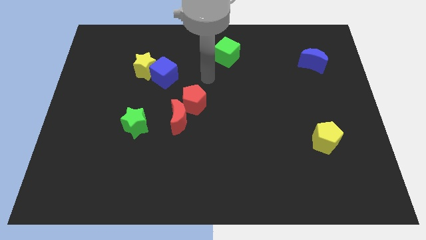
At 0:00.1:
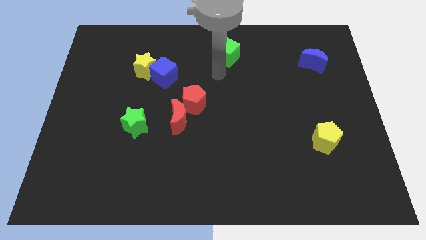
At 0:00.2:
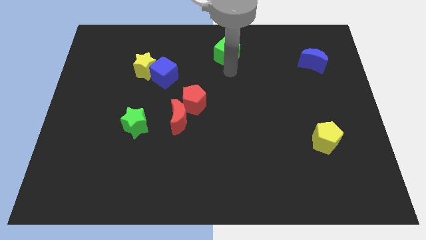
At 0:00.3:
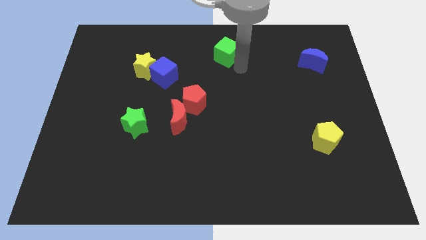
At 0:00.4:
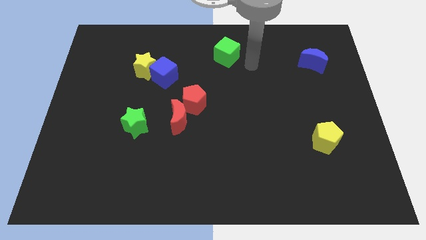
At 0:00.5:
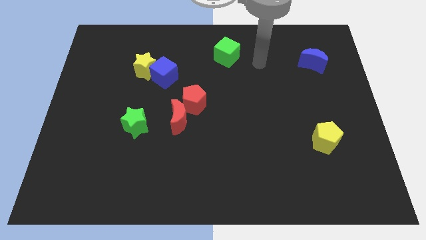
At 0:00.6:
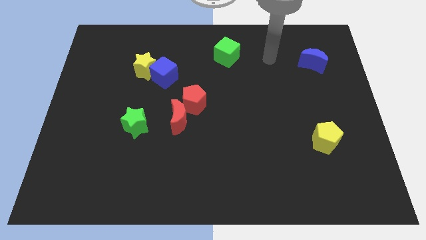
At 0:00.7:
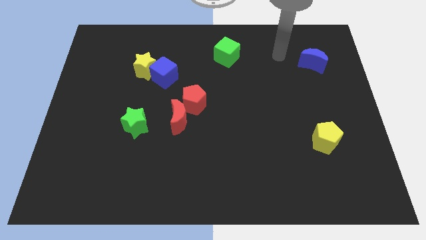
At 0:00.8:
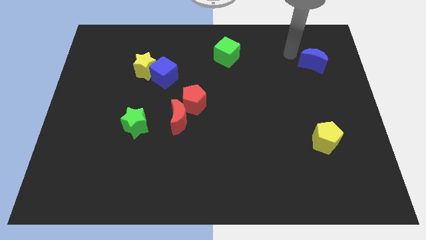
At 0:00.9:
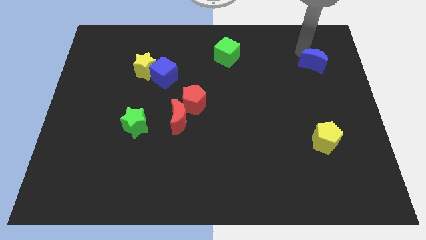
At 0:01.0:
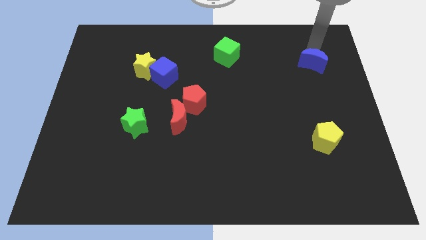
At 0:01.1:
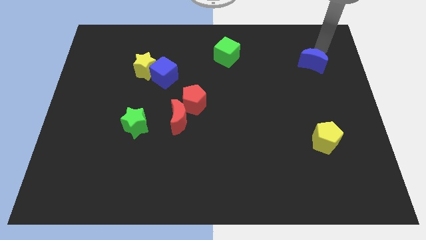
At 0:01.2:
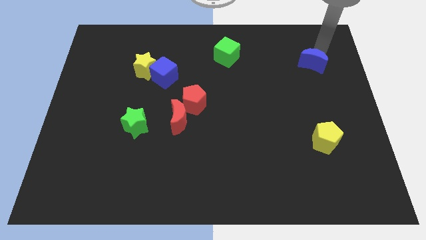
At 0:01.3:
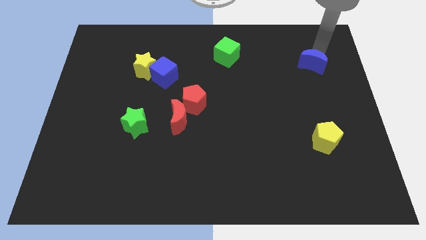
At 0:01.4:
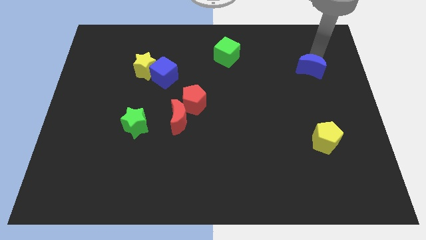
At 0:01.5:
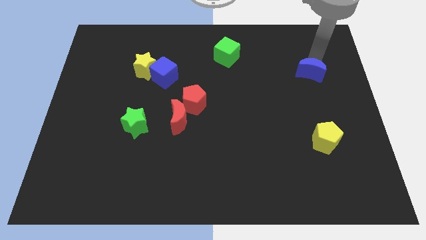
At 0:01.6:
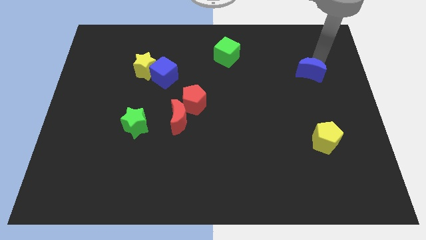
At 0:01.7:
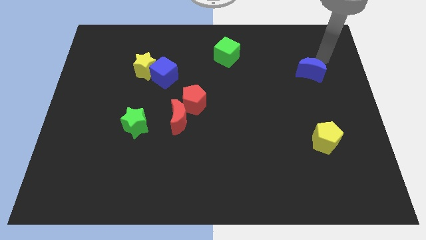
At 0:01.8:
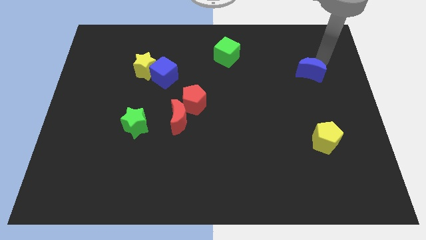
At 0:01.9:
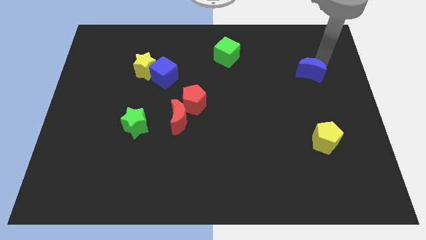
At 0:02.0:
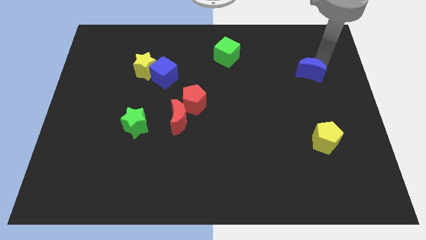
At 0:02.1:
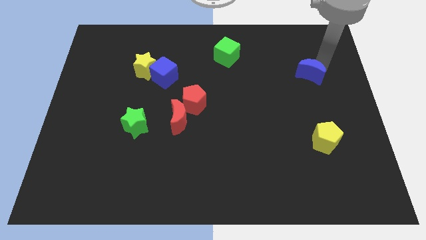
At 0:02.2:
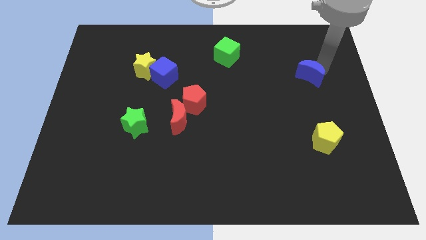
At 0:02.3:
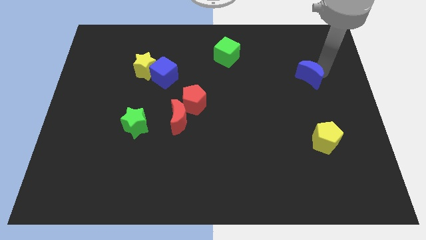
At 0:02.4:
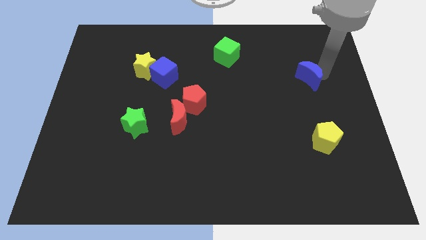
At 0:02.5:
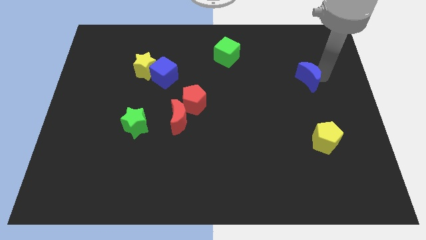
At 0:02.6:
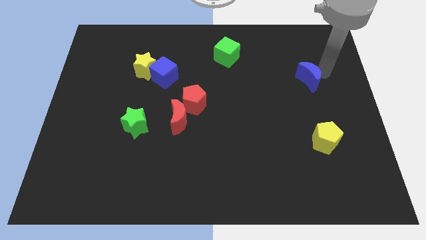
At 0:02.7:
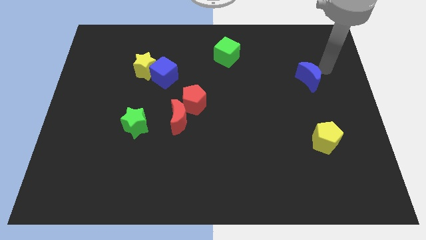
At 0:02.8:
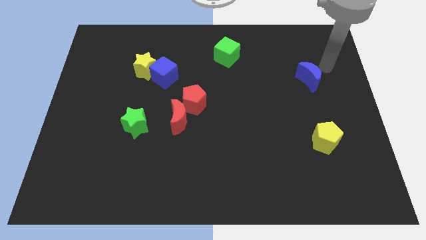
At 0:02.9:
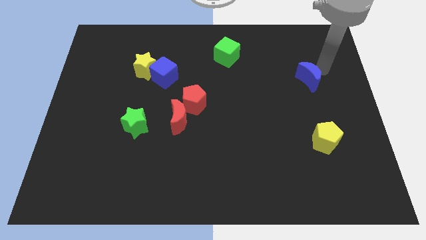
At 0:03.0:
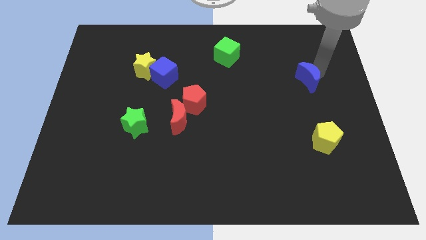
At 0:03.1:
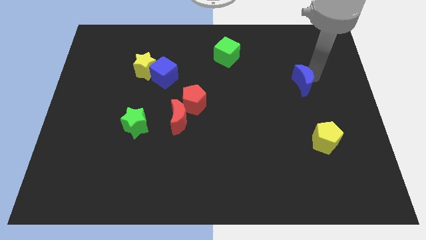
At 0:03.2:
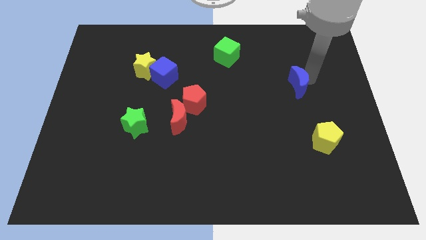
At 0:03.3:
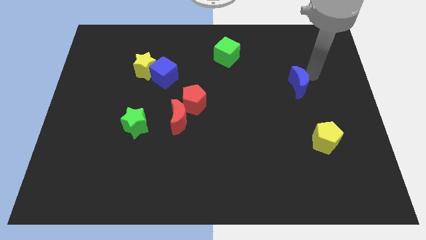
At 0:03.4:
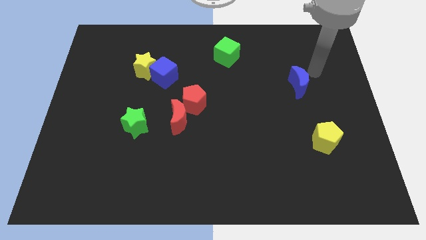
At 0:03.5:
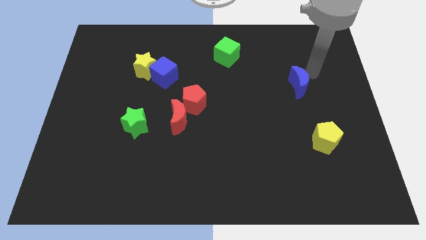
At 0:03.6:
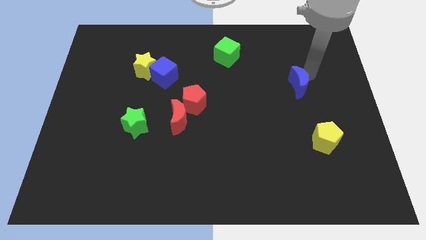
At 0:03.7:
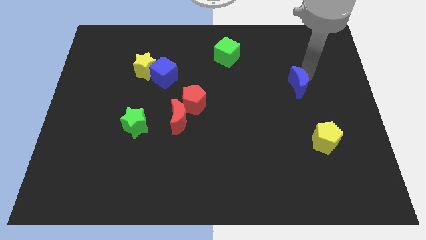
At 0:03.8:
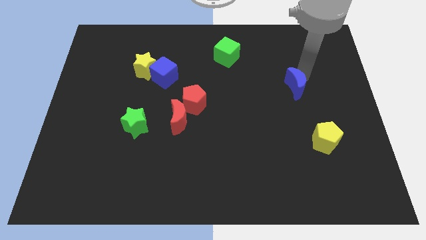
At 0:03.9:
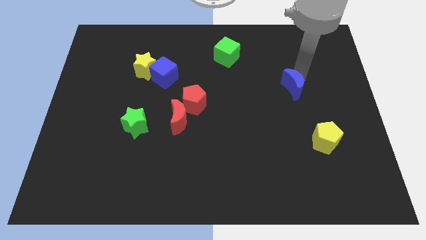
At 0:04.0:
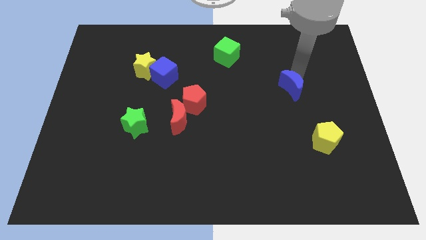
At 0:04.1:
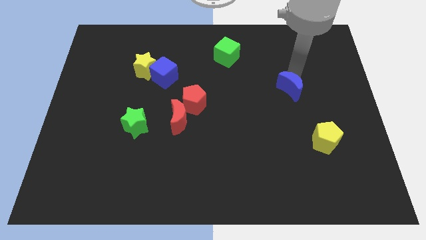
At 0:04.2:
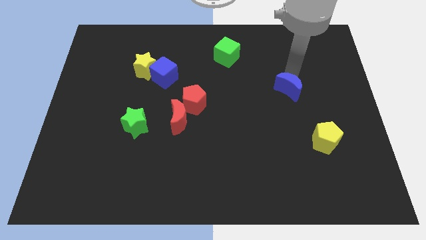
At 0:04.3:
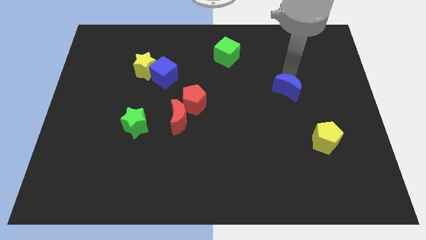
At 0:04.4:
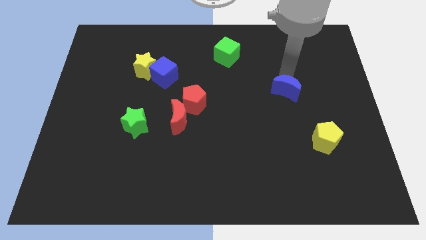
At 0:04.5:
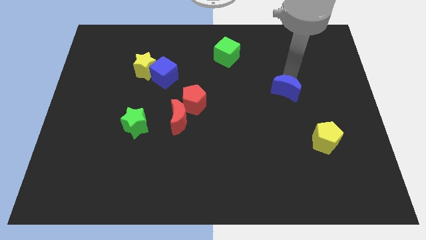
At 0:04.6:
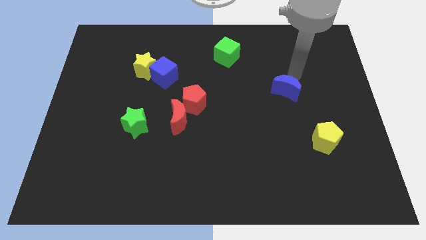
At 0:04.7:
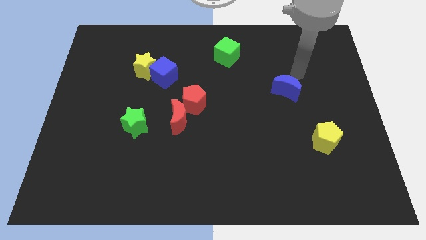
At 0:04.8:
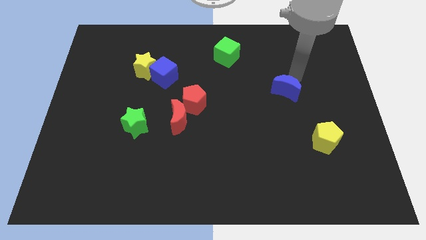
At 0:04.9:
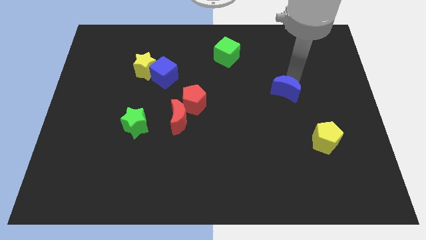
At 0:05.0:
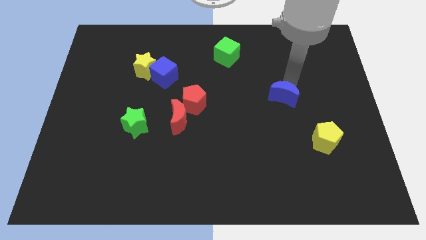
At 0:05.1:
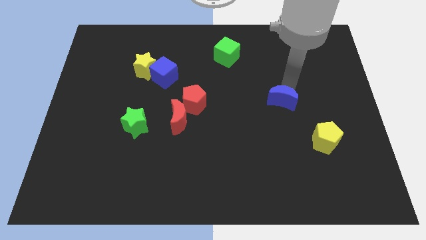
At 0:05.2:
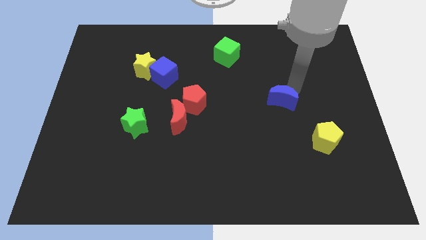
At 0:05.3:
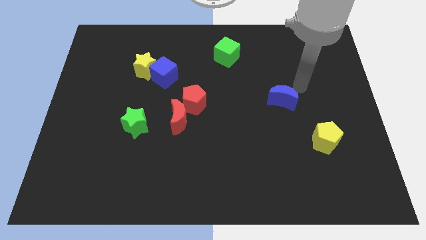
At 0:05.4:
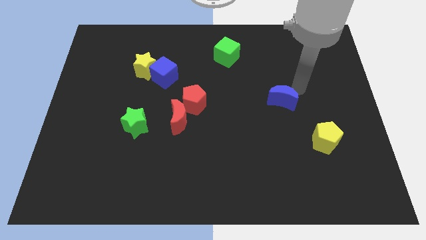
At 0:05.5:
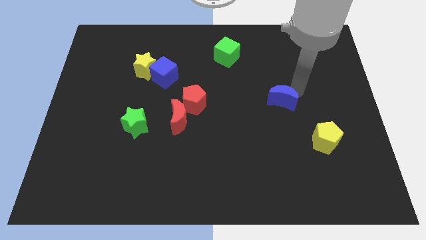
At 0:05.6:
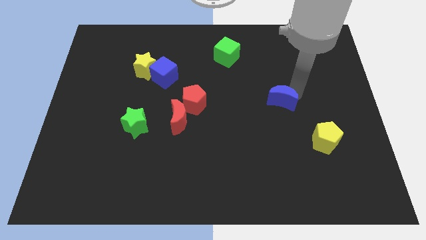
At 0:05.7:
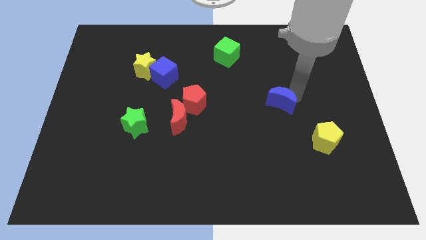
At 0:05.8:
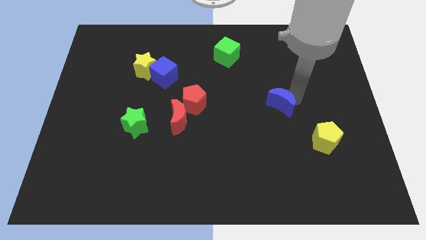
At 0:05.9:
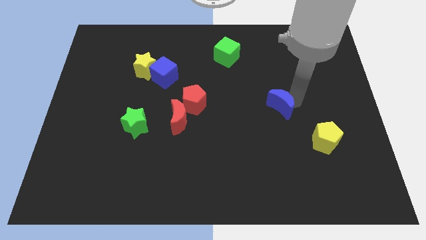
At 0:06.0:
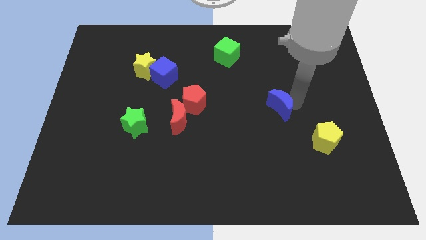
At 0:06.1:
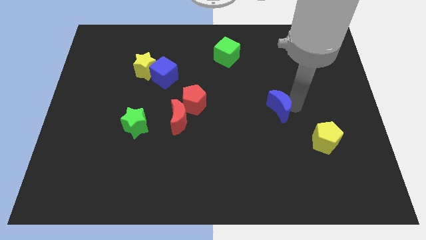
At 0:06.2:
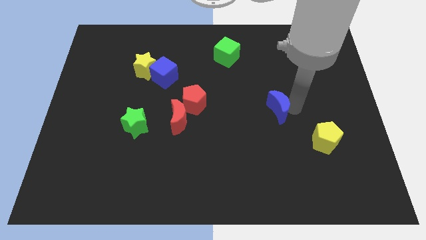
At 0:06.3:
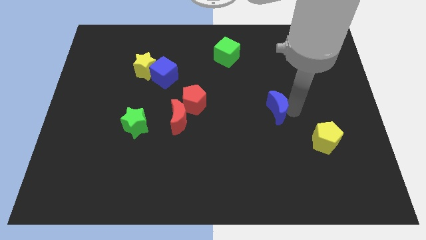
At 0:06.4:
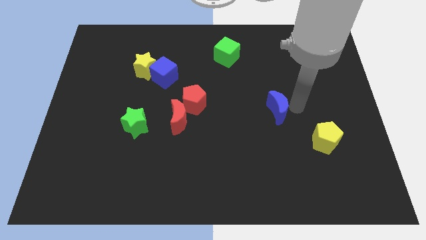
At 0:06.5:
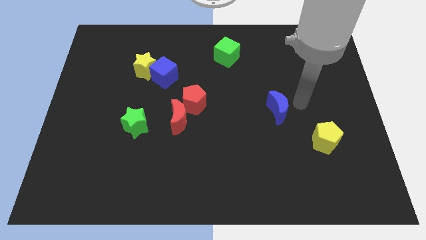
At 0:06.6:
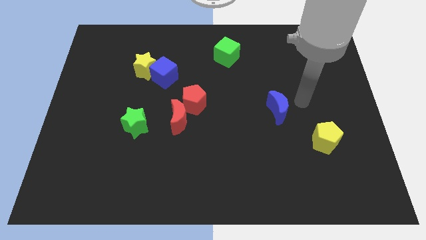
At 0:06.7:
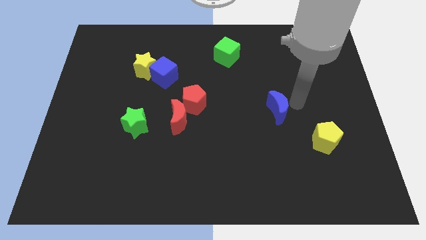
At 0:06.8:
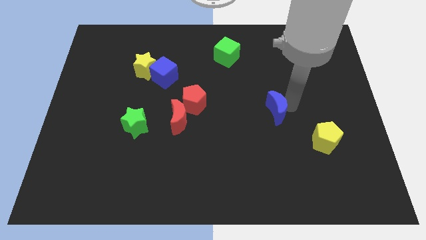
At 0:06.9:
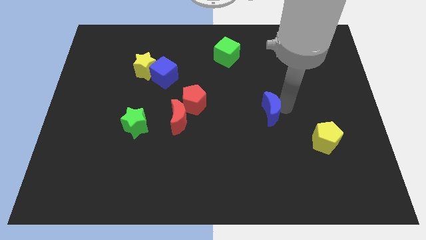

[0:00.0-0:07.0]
push the blue moon down and left

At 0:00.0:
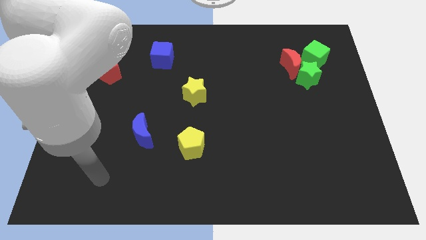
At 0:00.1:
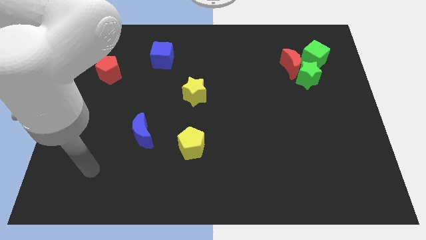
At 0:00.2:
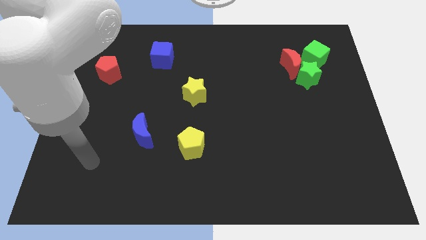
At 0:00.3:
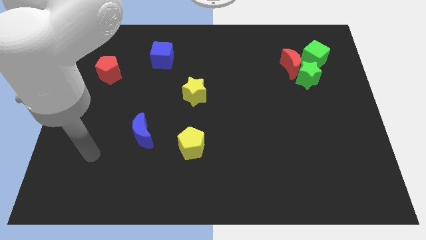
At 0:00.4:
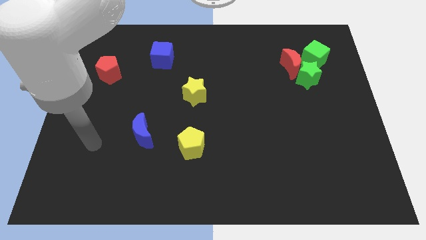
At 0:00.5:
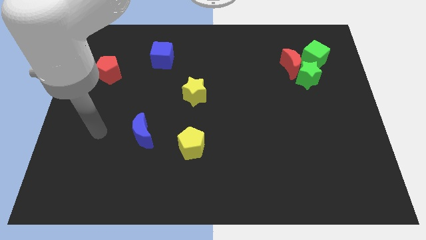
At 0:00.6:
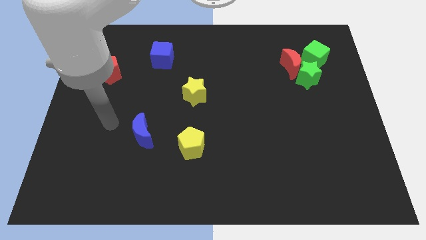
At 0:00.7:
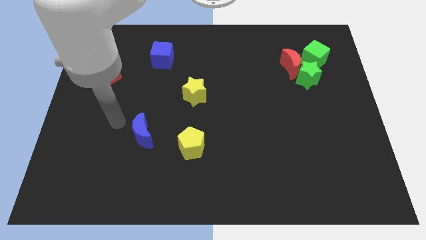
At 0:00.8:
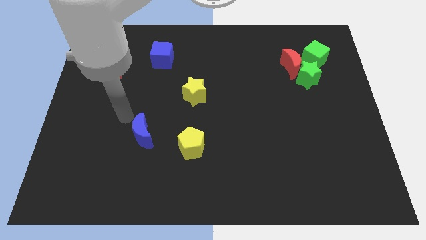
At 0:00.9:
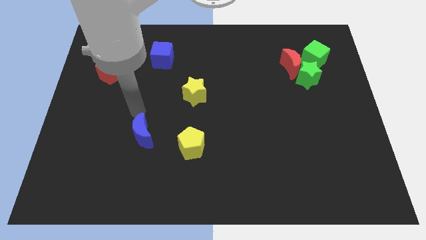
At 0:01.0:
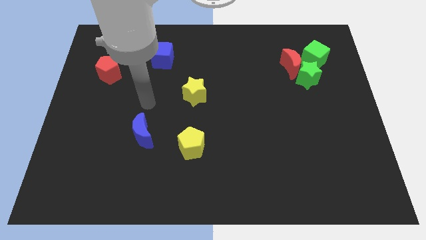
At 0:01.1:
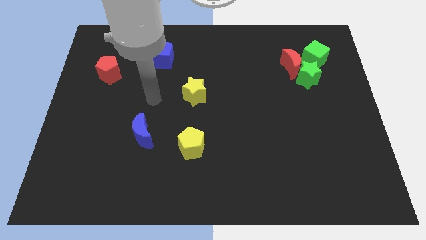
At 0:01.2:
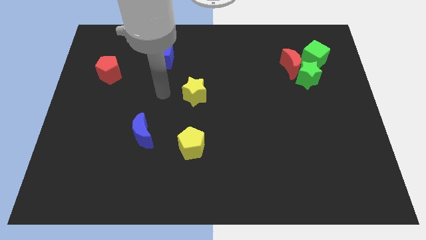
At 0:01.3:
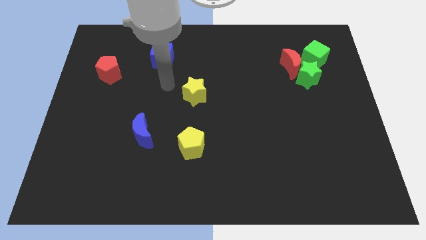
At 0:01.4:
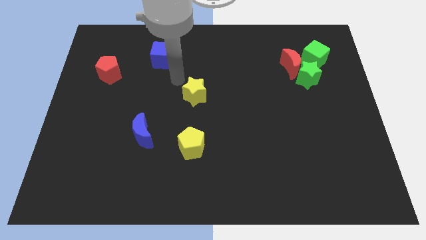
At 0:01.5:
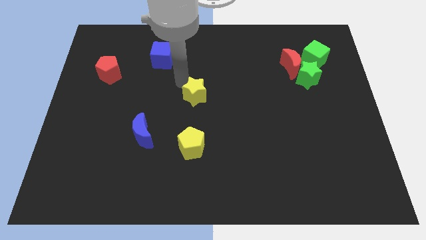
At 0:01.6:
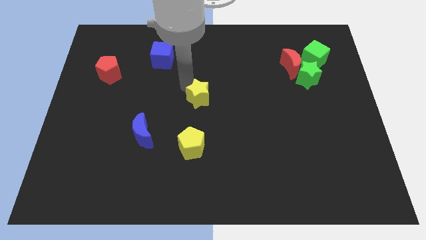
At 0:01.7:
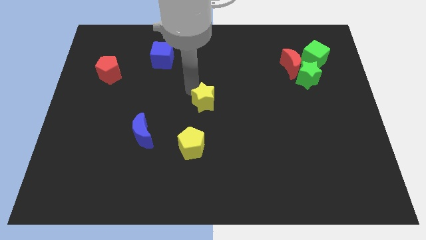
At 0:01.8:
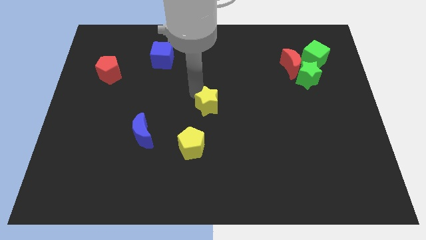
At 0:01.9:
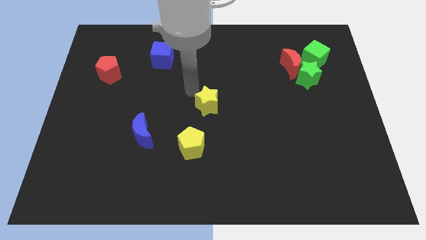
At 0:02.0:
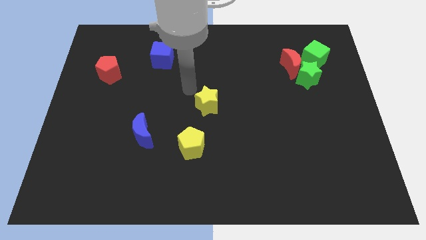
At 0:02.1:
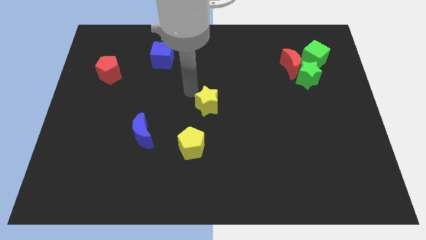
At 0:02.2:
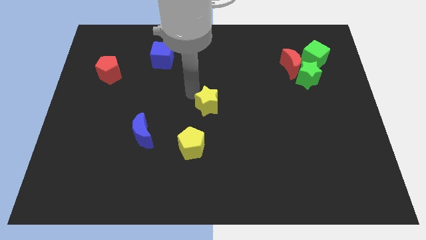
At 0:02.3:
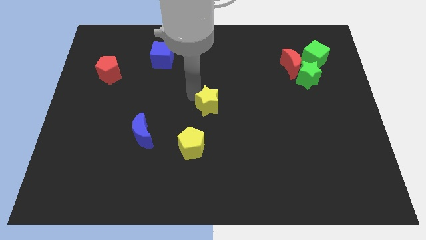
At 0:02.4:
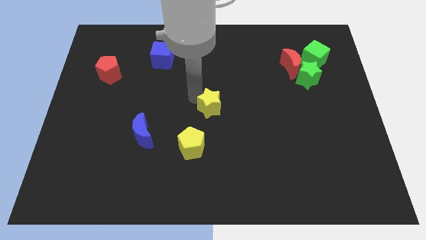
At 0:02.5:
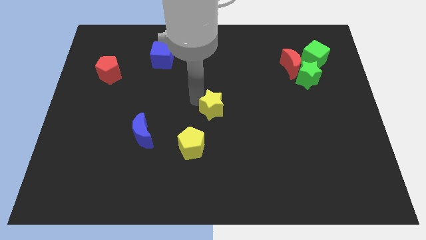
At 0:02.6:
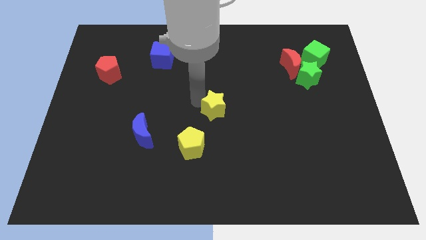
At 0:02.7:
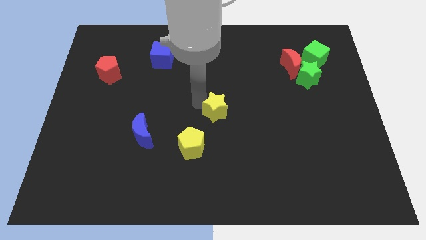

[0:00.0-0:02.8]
slightly push the yellow star down and then right
